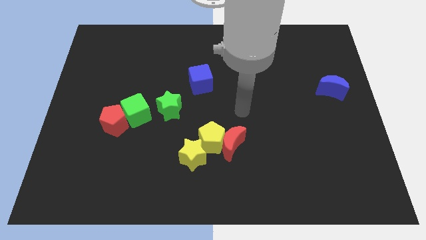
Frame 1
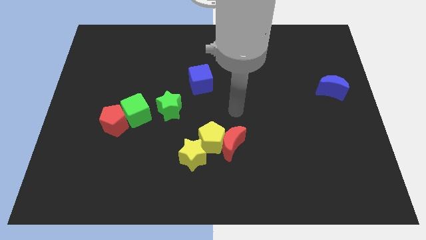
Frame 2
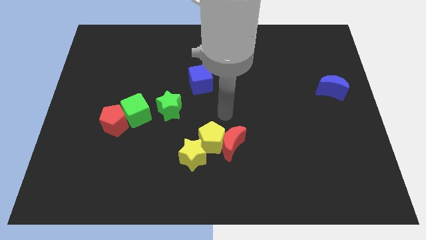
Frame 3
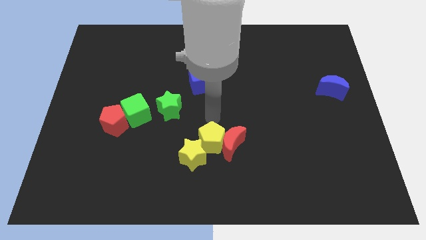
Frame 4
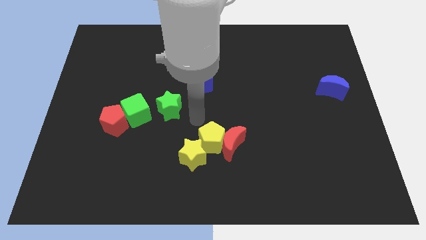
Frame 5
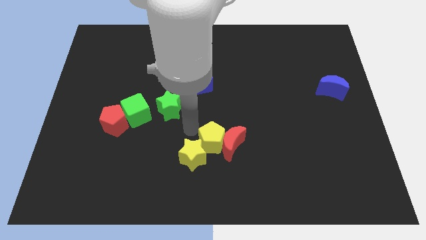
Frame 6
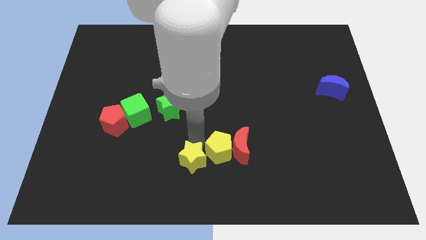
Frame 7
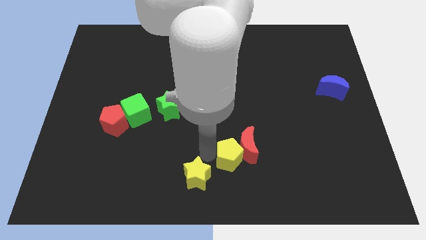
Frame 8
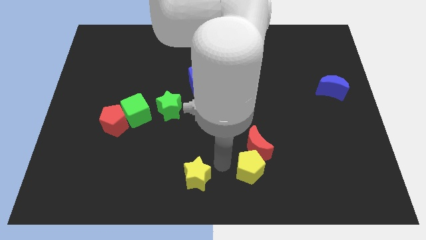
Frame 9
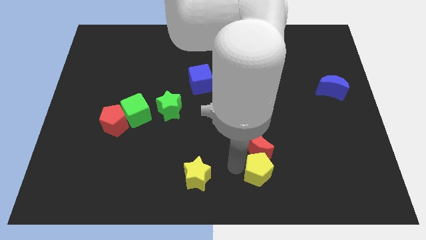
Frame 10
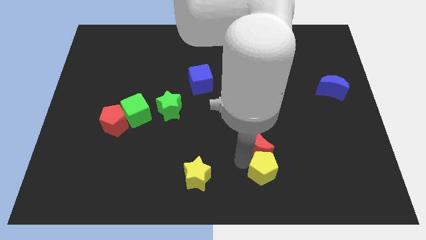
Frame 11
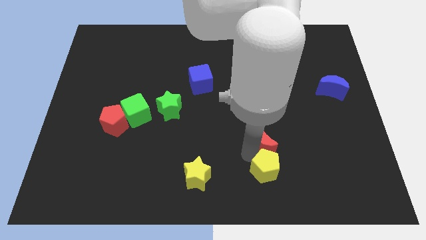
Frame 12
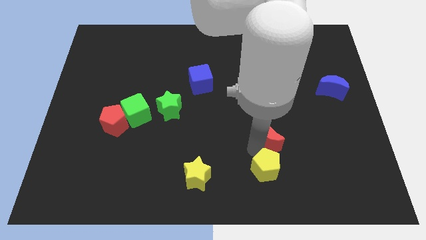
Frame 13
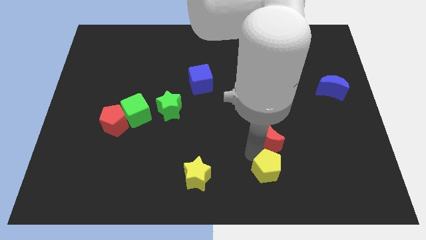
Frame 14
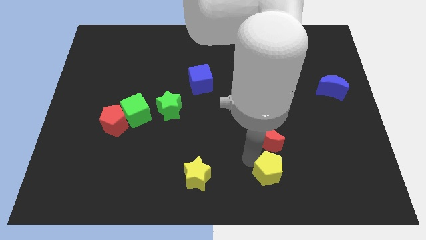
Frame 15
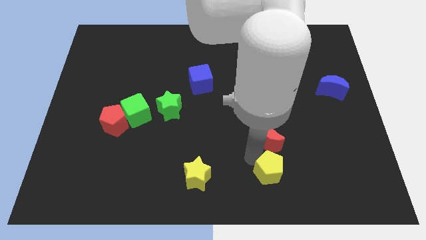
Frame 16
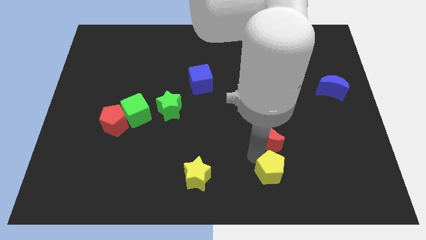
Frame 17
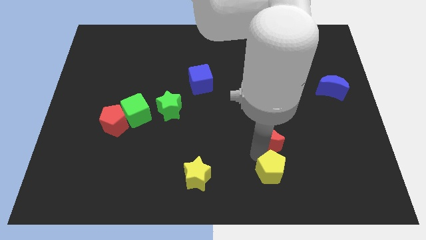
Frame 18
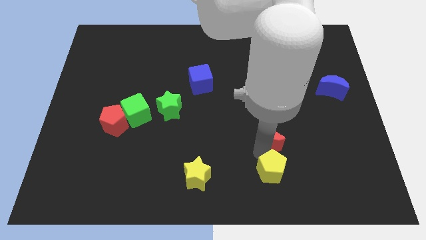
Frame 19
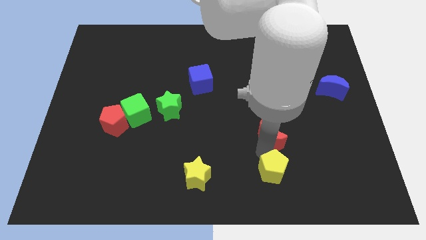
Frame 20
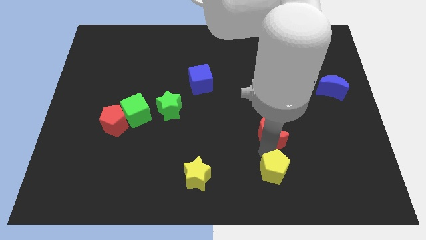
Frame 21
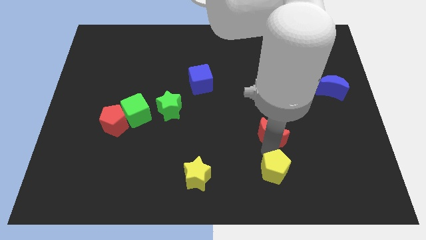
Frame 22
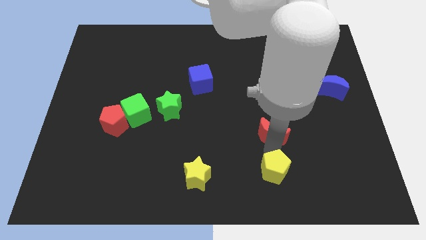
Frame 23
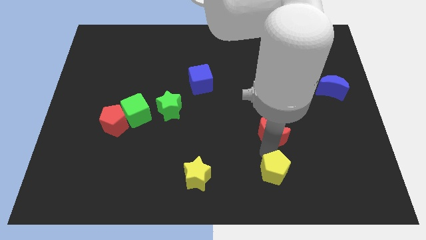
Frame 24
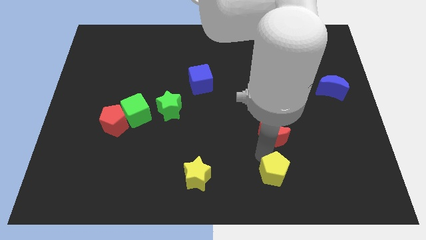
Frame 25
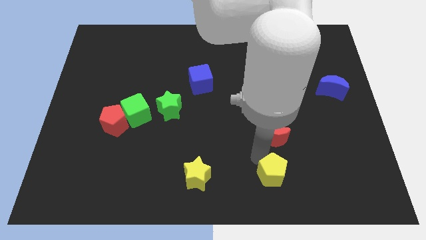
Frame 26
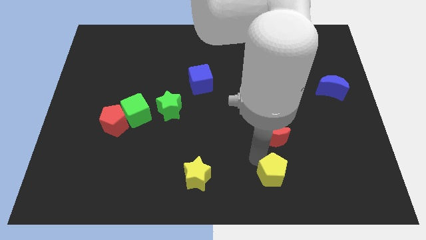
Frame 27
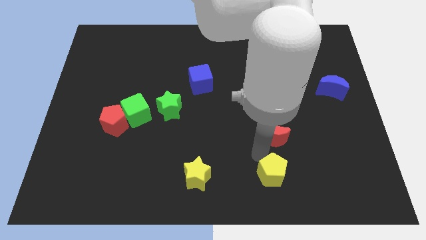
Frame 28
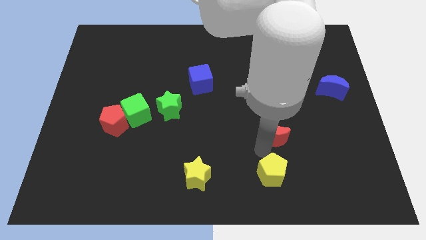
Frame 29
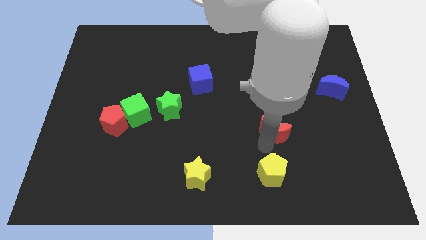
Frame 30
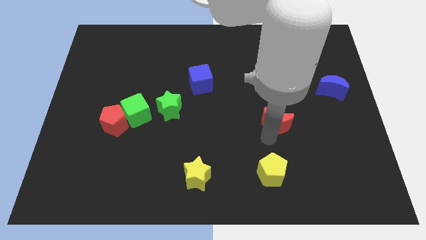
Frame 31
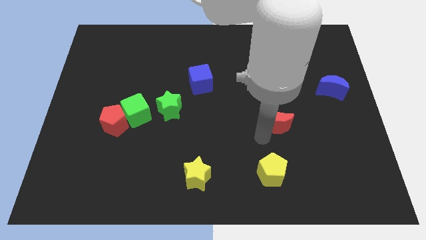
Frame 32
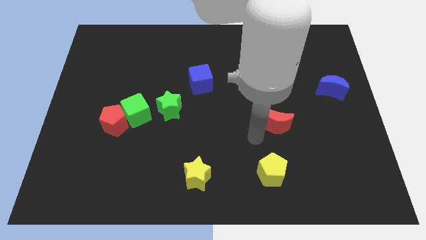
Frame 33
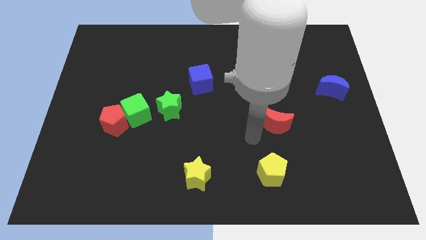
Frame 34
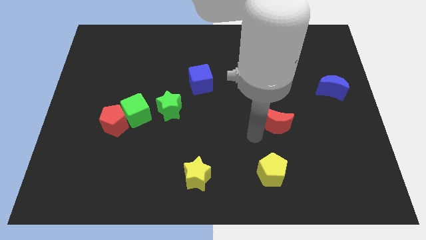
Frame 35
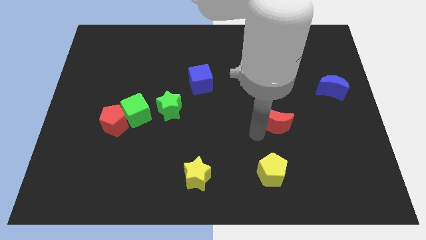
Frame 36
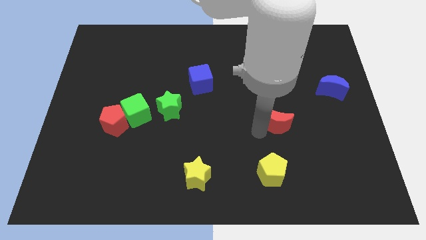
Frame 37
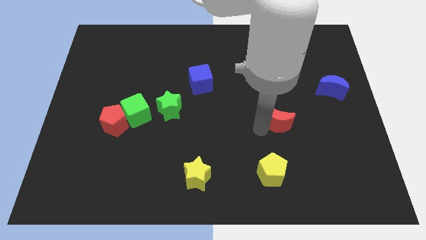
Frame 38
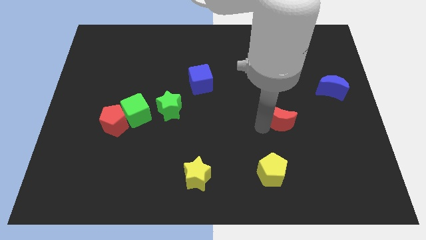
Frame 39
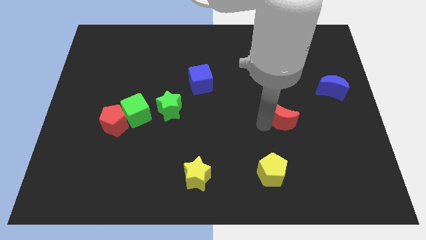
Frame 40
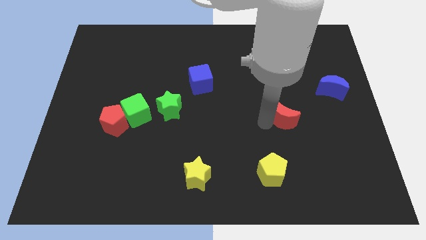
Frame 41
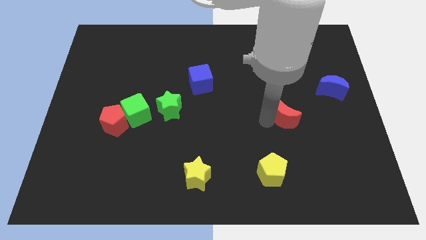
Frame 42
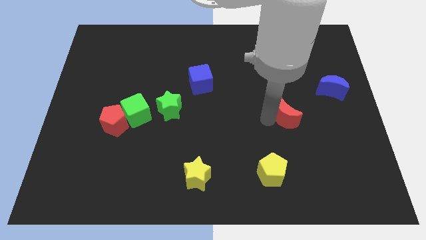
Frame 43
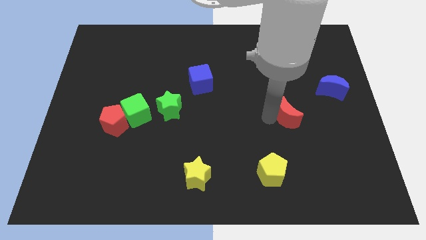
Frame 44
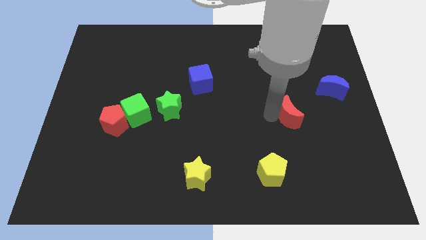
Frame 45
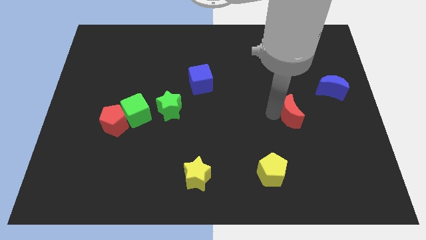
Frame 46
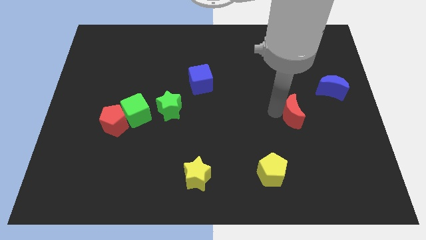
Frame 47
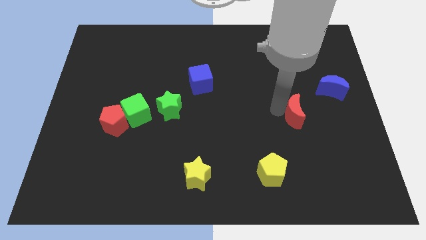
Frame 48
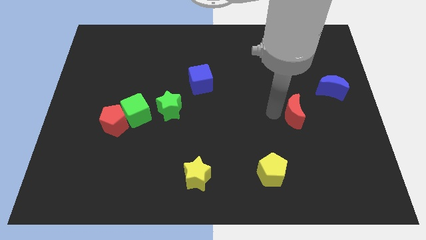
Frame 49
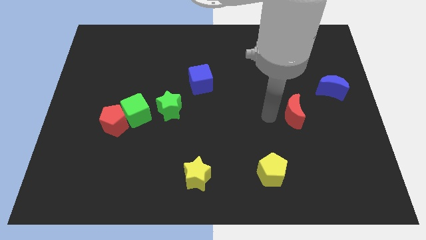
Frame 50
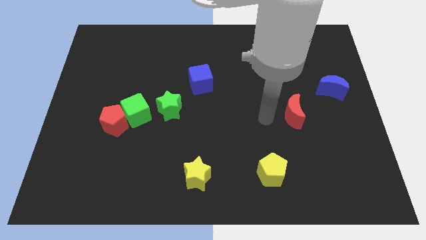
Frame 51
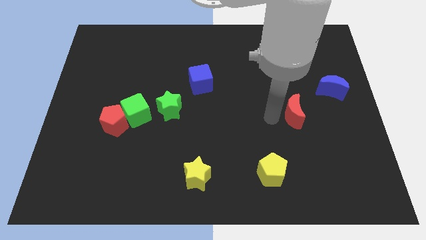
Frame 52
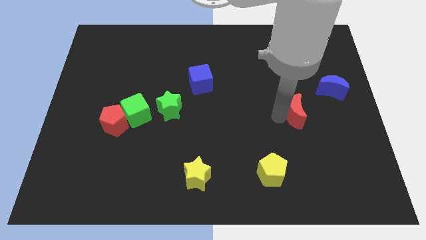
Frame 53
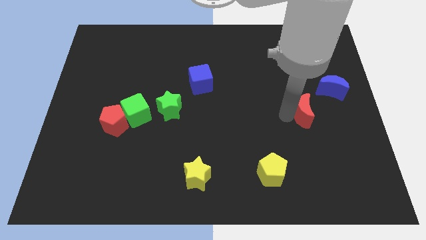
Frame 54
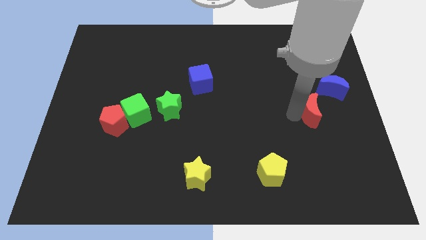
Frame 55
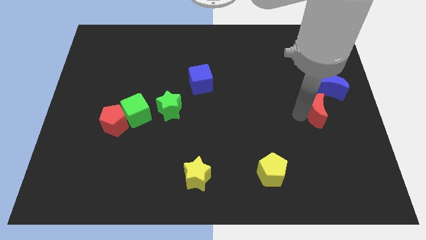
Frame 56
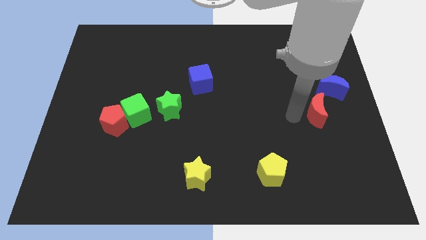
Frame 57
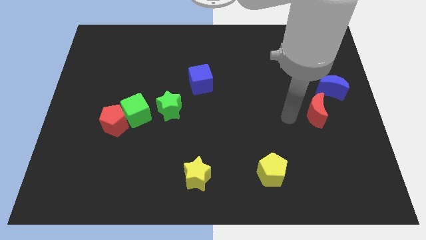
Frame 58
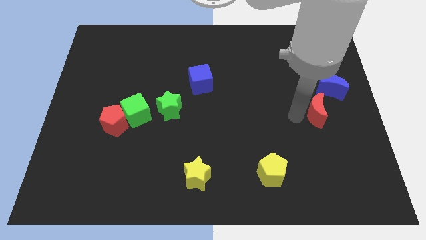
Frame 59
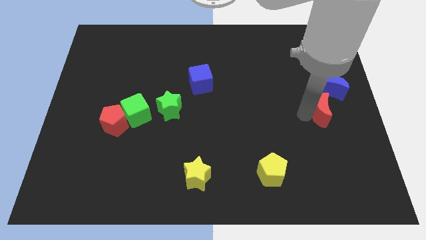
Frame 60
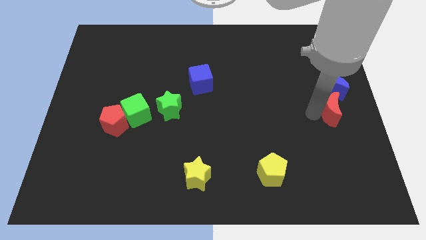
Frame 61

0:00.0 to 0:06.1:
move the red moon to the center right

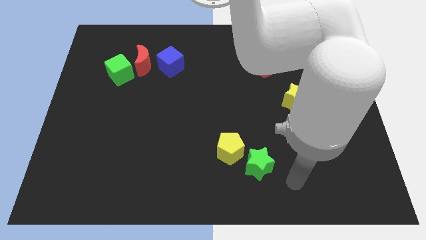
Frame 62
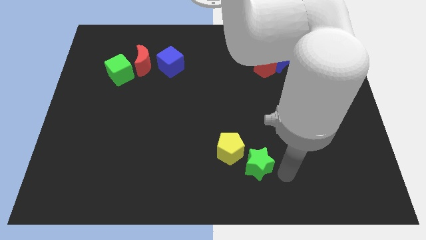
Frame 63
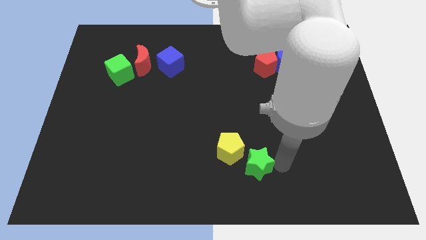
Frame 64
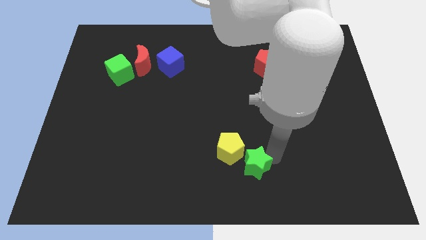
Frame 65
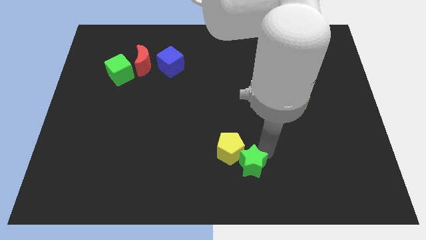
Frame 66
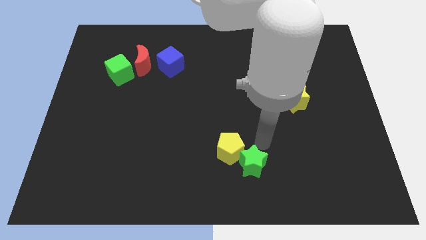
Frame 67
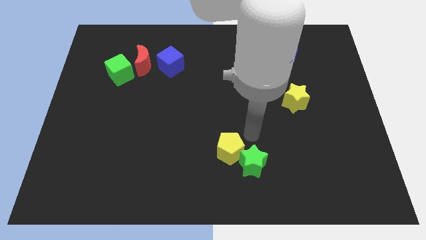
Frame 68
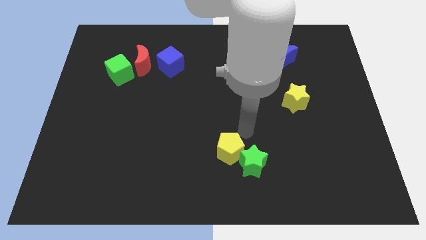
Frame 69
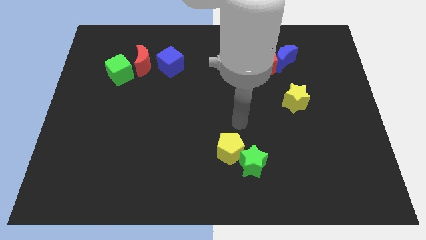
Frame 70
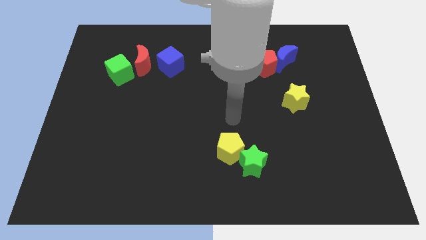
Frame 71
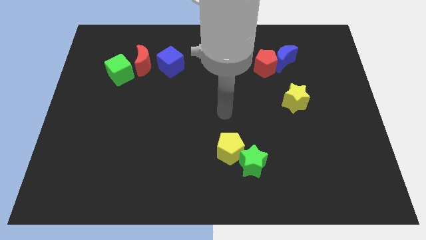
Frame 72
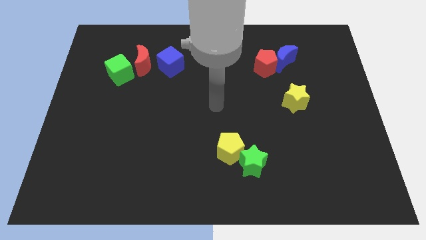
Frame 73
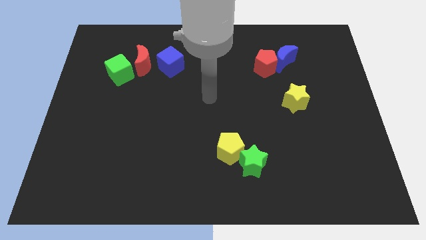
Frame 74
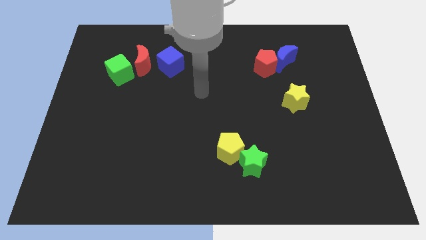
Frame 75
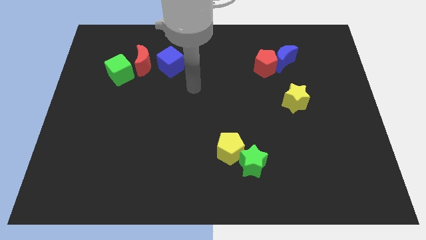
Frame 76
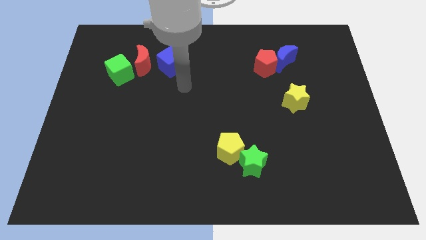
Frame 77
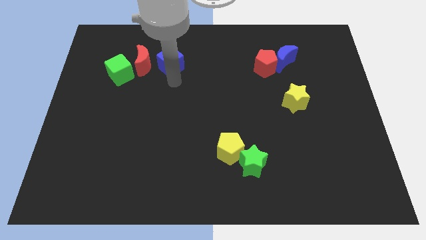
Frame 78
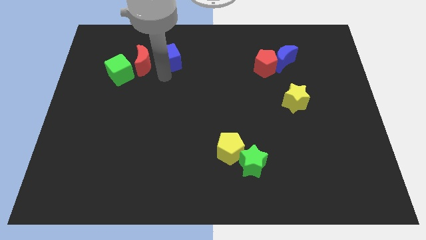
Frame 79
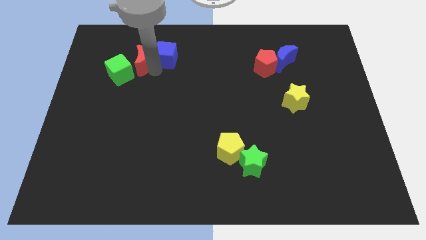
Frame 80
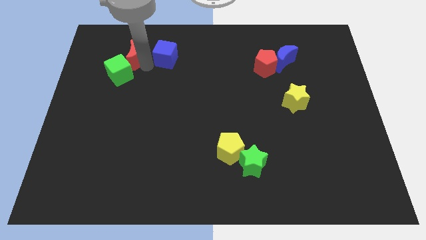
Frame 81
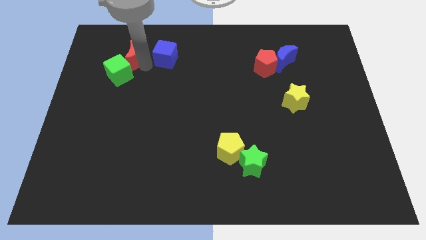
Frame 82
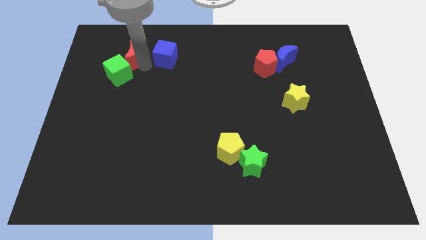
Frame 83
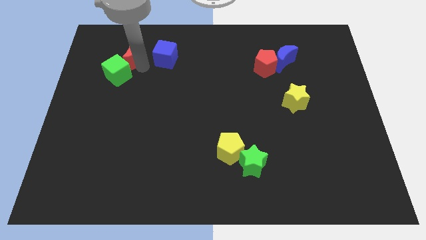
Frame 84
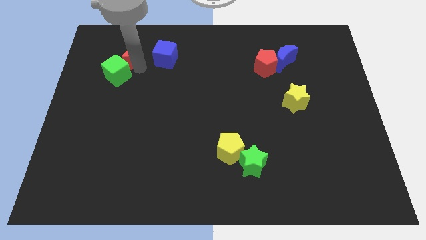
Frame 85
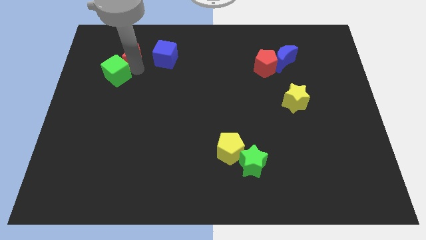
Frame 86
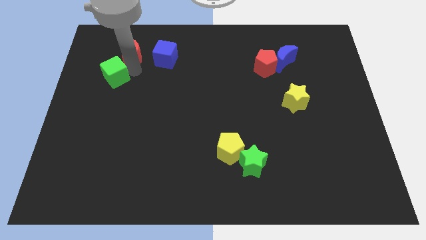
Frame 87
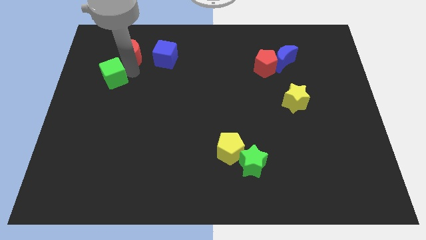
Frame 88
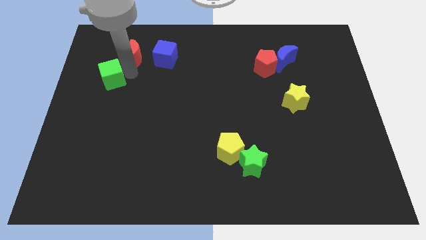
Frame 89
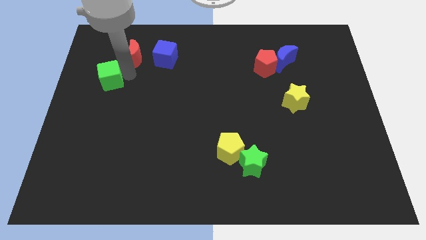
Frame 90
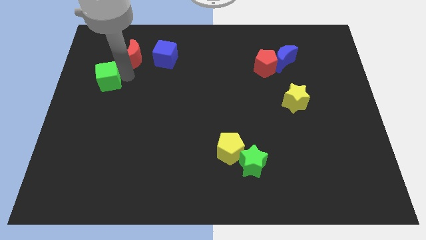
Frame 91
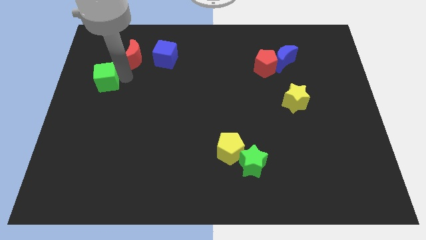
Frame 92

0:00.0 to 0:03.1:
move the green cube to the left side of the board
